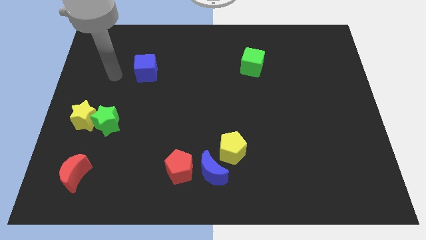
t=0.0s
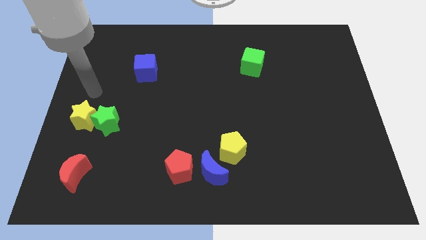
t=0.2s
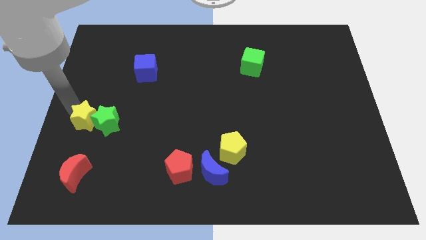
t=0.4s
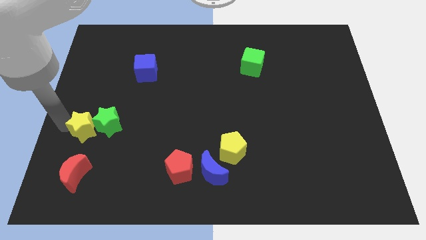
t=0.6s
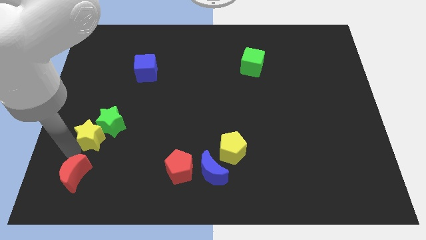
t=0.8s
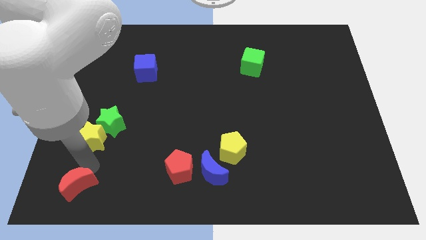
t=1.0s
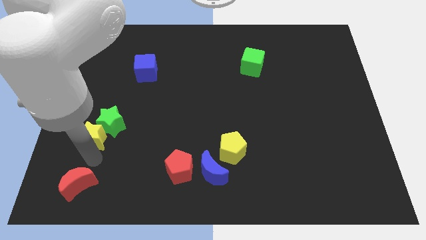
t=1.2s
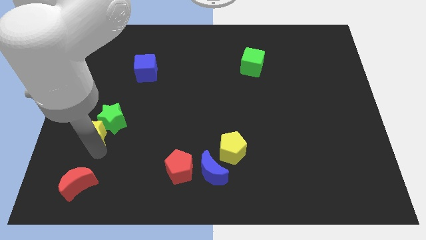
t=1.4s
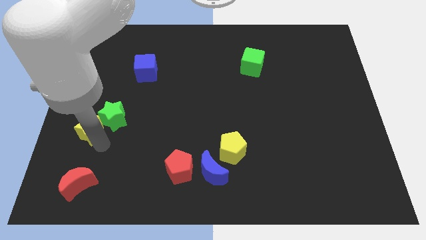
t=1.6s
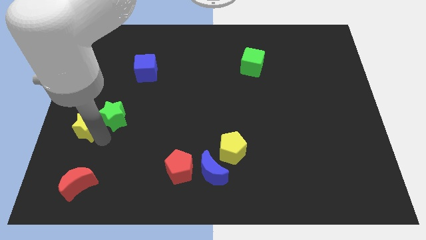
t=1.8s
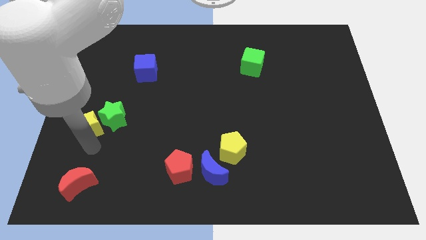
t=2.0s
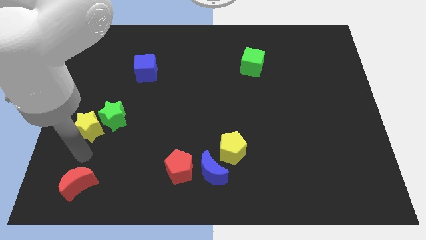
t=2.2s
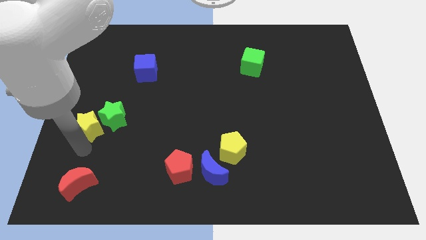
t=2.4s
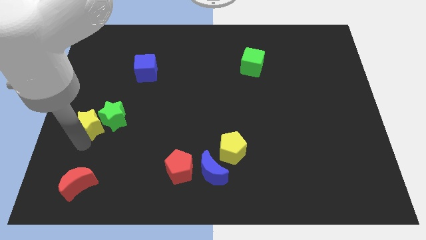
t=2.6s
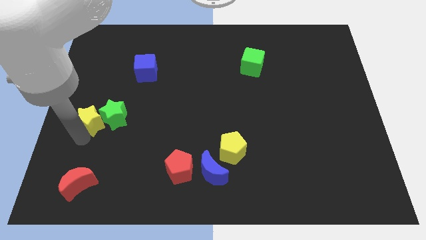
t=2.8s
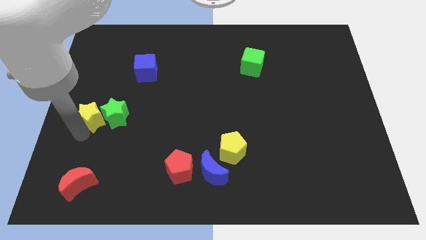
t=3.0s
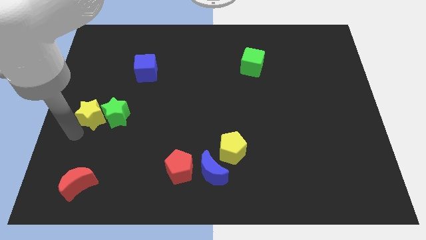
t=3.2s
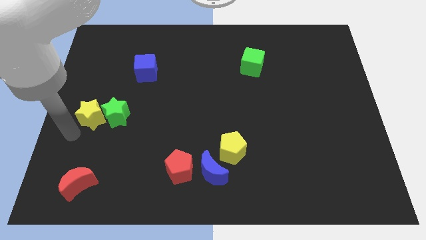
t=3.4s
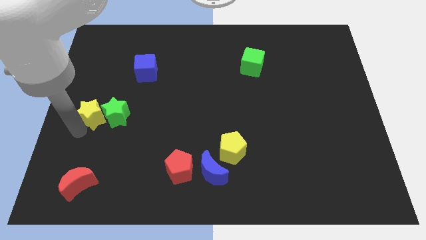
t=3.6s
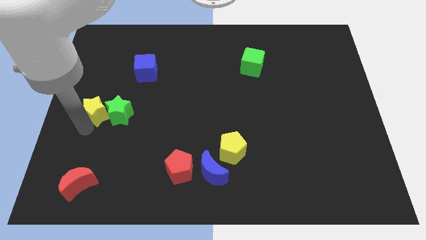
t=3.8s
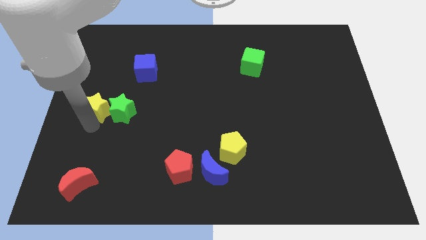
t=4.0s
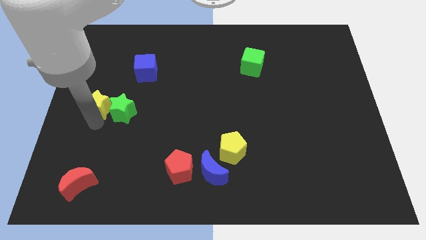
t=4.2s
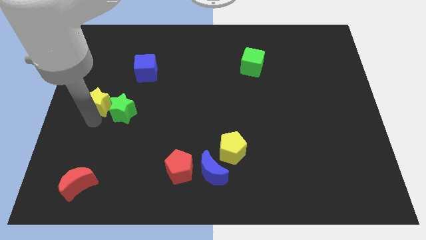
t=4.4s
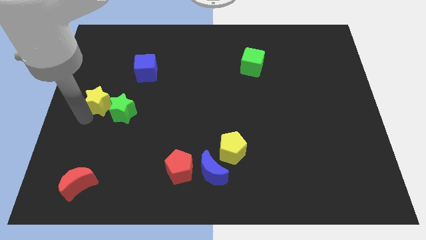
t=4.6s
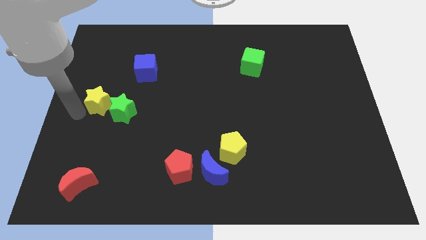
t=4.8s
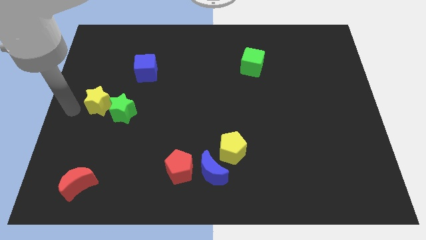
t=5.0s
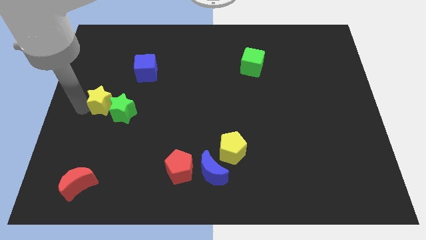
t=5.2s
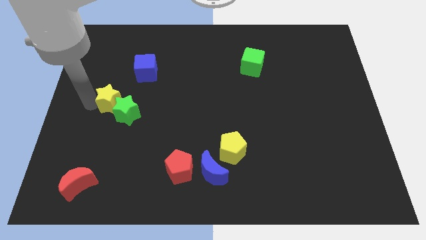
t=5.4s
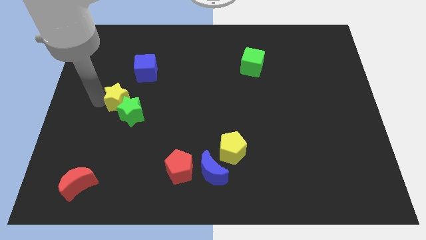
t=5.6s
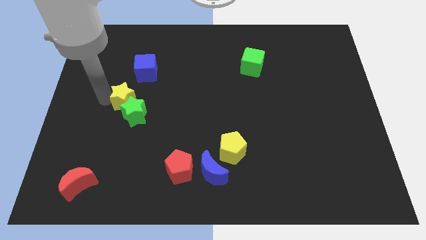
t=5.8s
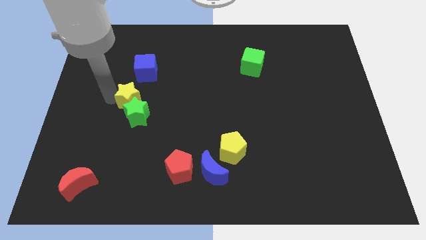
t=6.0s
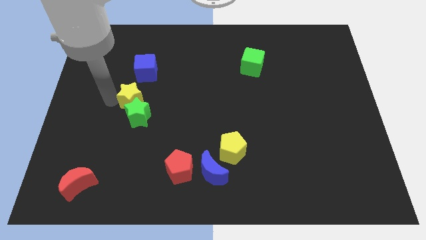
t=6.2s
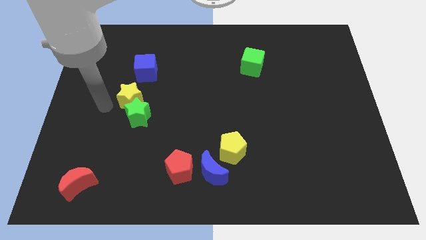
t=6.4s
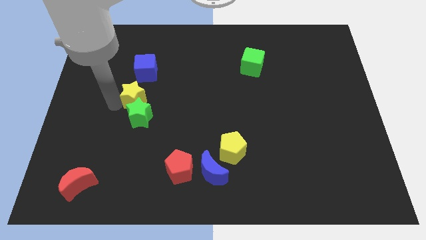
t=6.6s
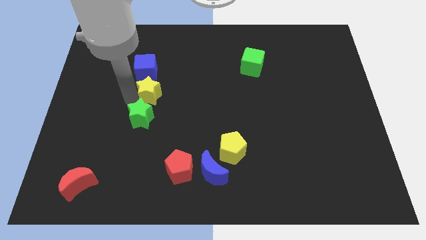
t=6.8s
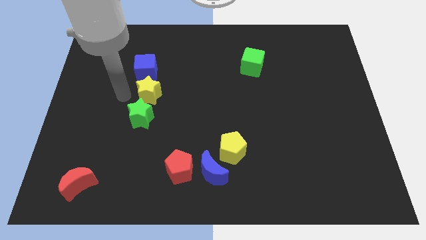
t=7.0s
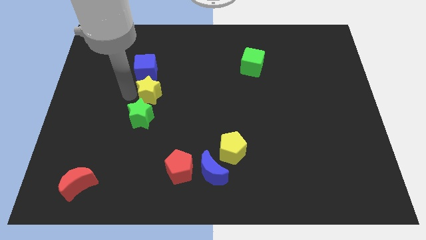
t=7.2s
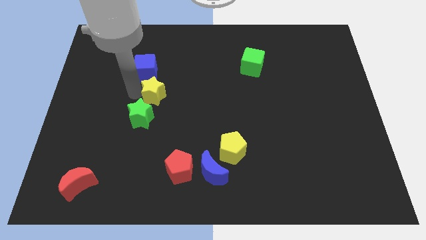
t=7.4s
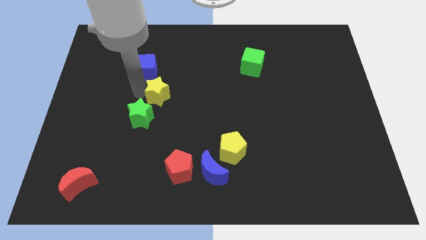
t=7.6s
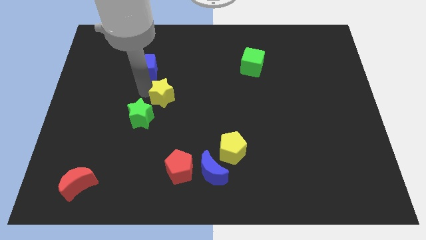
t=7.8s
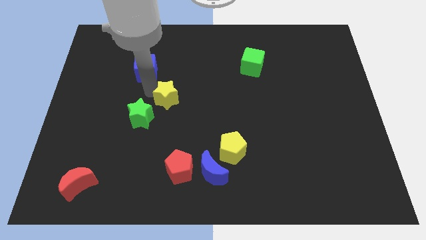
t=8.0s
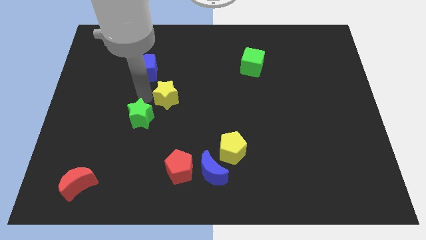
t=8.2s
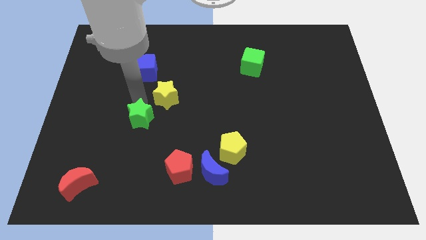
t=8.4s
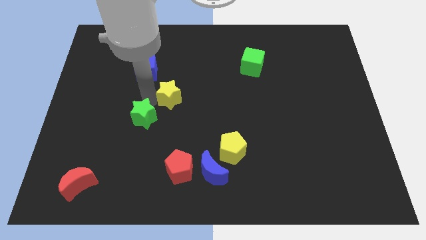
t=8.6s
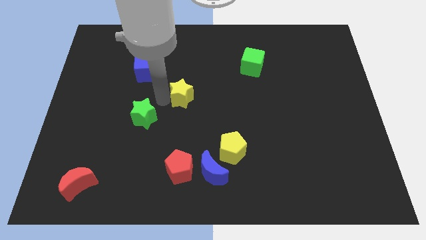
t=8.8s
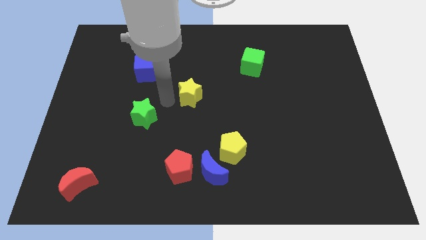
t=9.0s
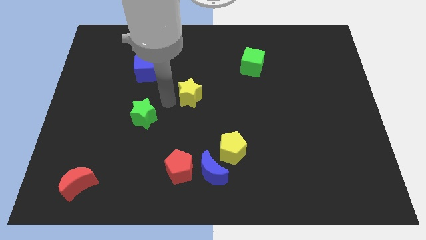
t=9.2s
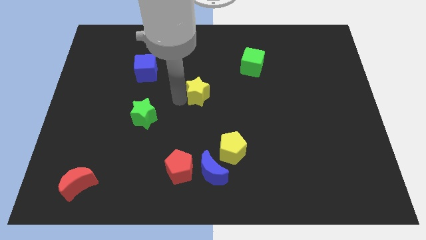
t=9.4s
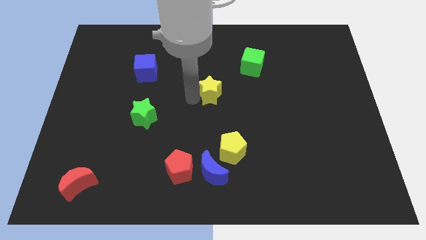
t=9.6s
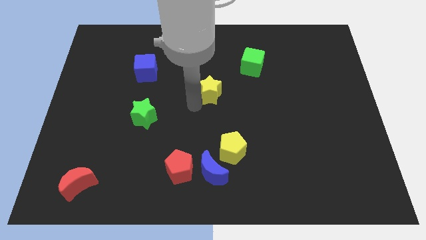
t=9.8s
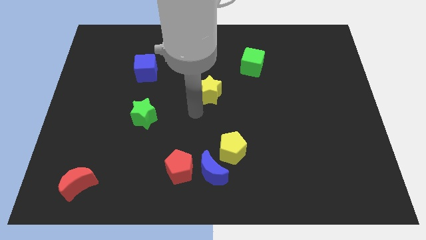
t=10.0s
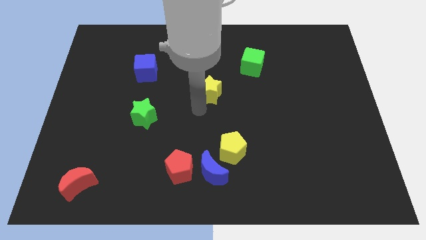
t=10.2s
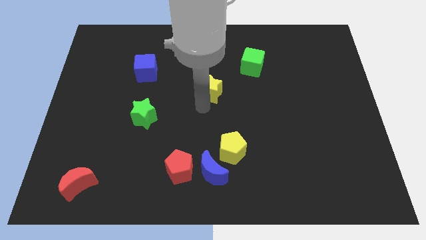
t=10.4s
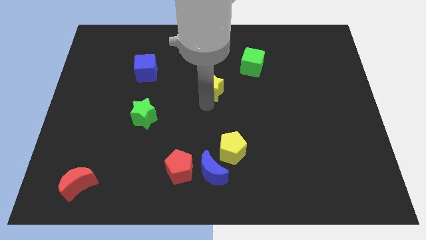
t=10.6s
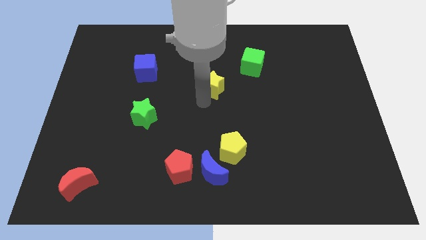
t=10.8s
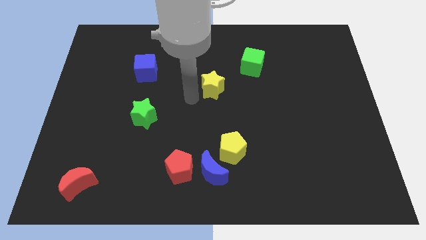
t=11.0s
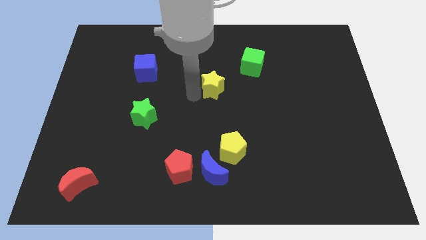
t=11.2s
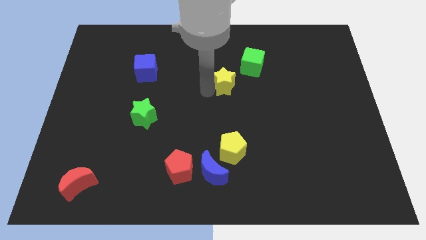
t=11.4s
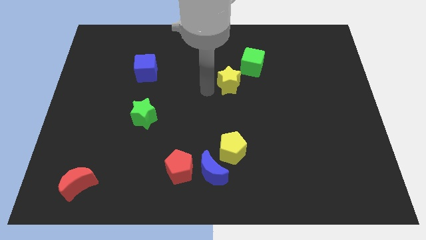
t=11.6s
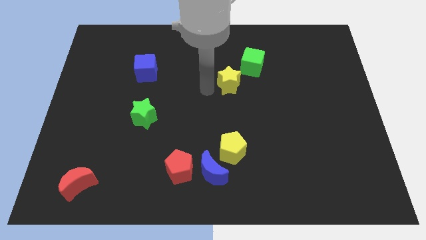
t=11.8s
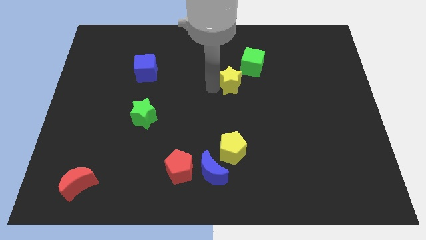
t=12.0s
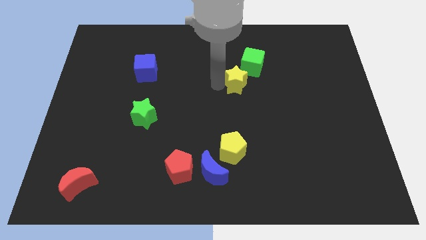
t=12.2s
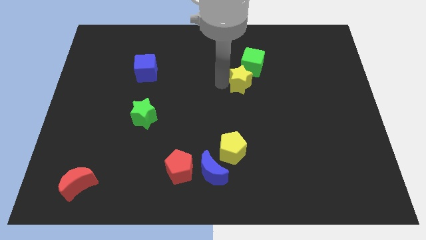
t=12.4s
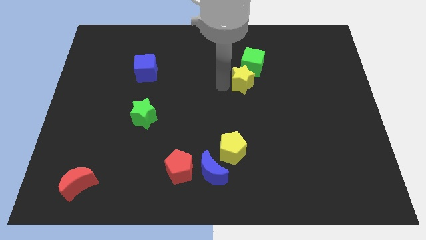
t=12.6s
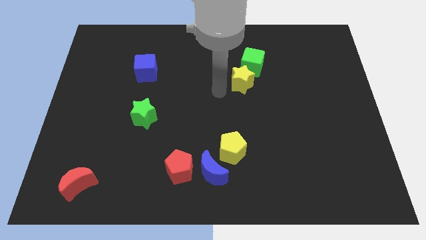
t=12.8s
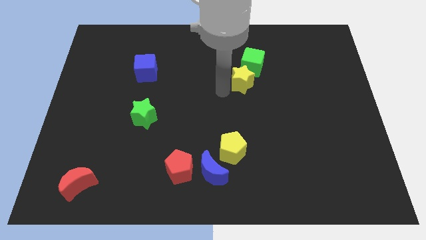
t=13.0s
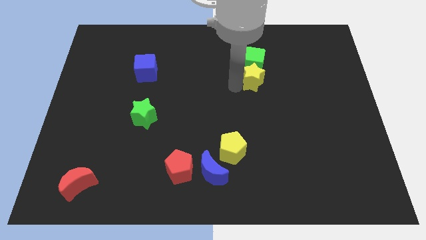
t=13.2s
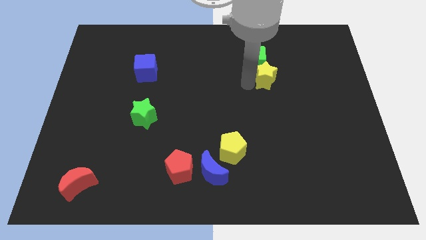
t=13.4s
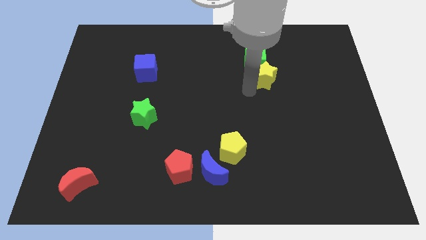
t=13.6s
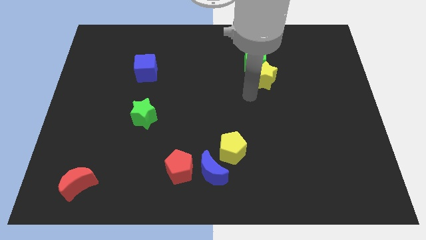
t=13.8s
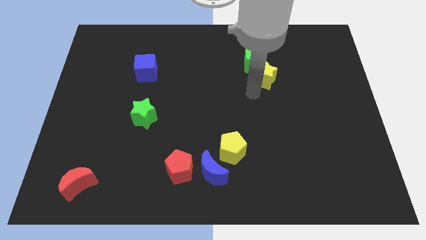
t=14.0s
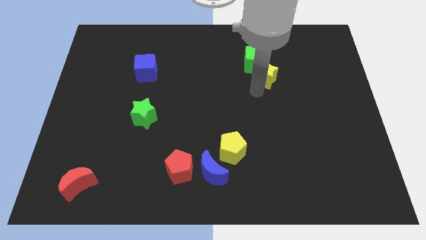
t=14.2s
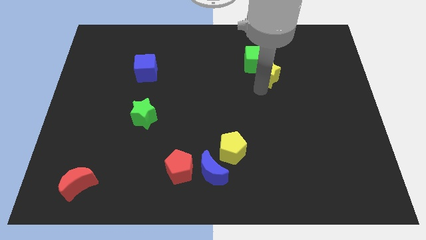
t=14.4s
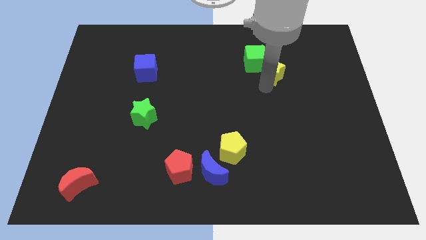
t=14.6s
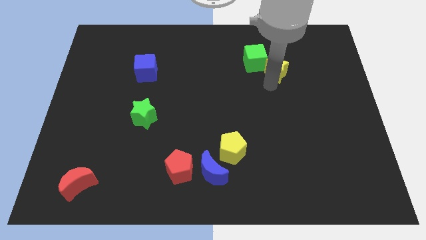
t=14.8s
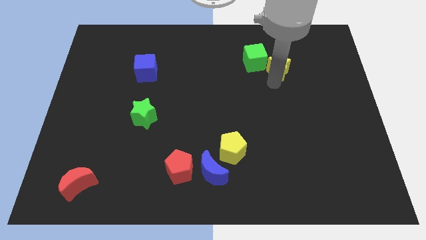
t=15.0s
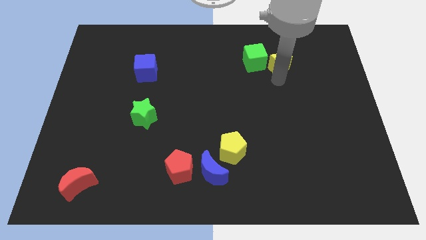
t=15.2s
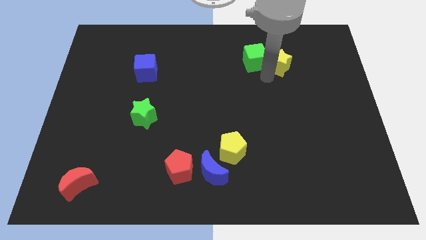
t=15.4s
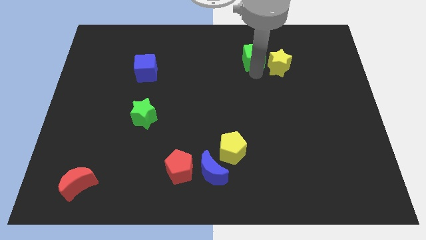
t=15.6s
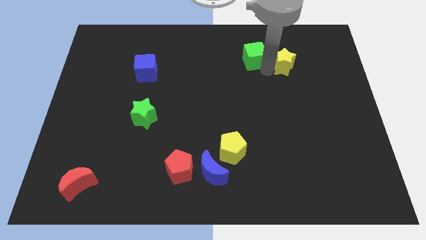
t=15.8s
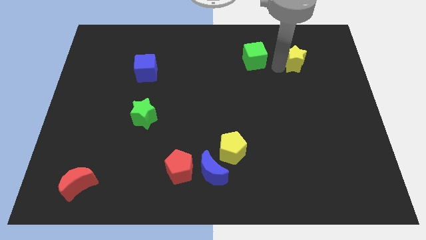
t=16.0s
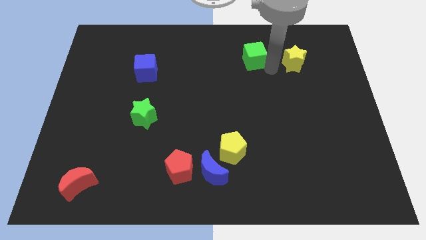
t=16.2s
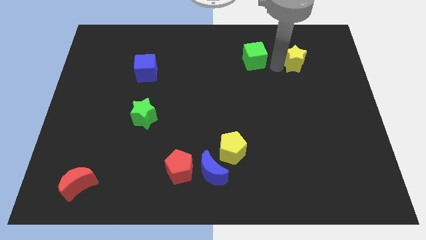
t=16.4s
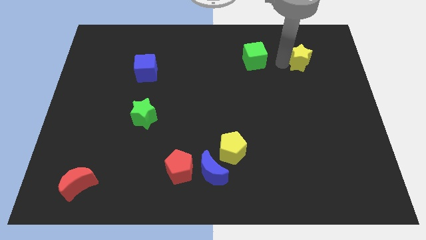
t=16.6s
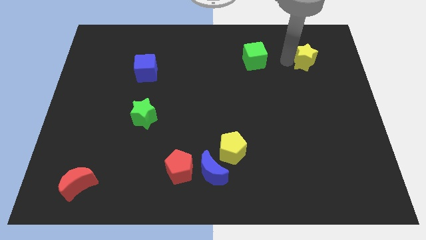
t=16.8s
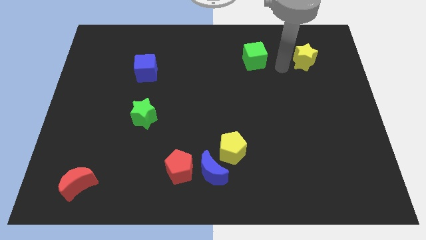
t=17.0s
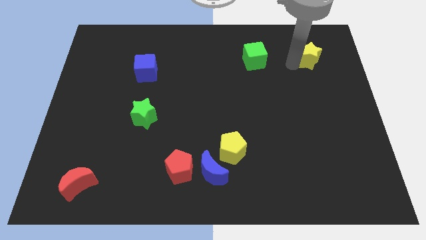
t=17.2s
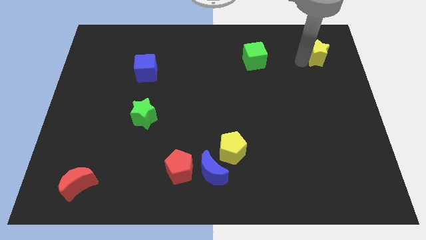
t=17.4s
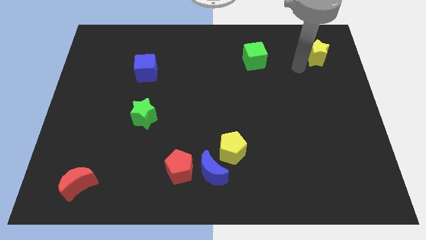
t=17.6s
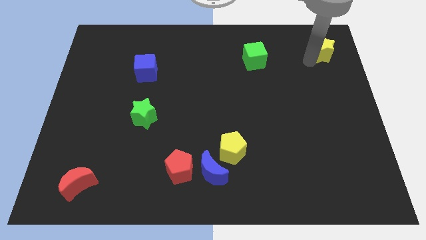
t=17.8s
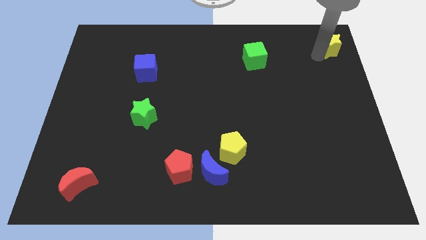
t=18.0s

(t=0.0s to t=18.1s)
put the yellow star to the upper right corner
